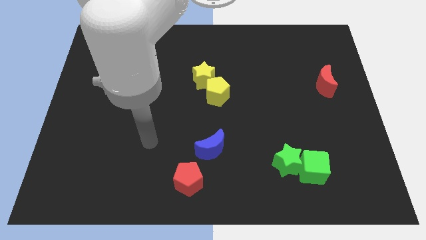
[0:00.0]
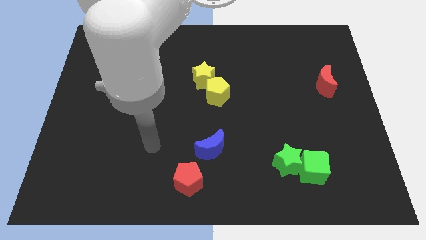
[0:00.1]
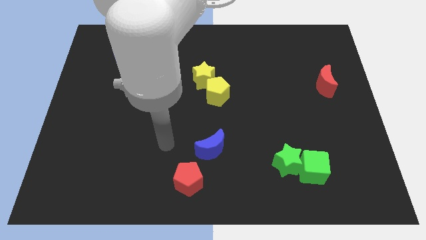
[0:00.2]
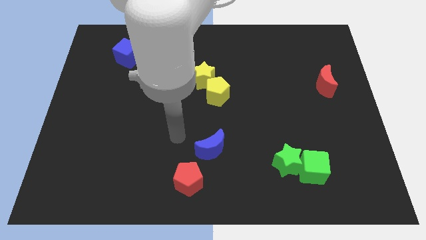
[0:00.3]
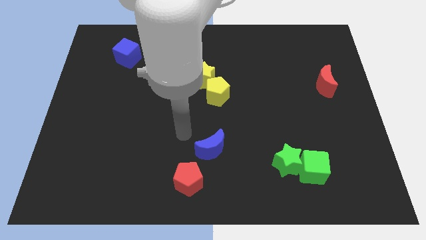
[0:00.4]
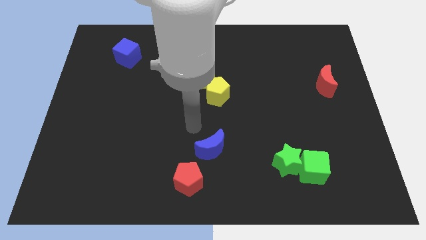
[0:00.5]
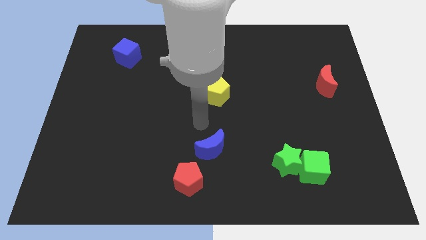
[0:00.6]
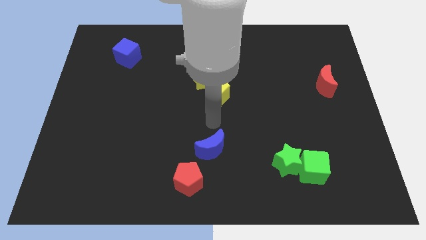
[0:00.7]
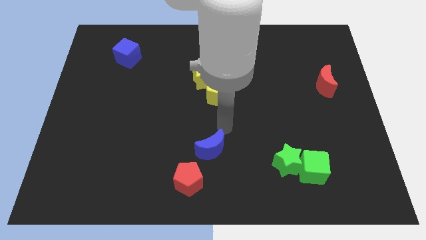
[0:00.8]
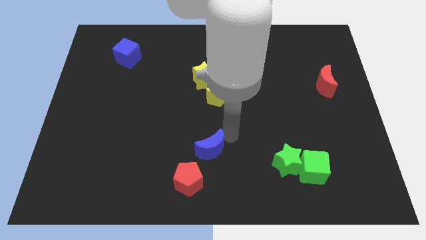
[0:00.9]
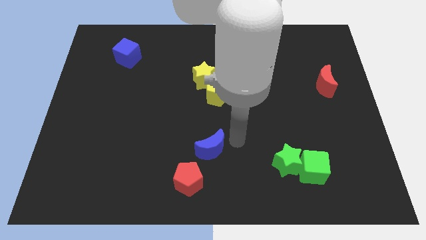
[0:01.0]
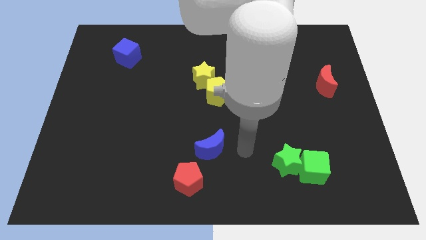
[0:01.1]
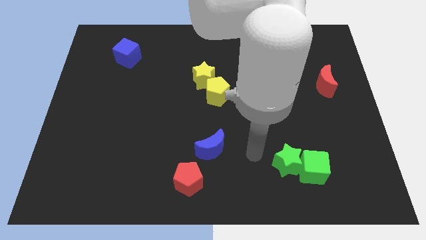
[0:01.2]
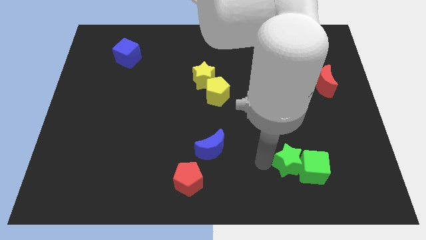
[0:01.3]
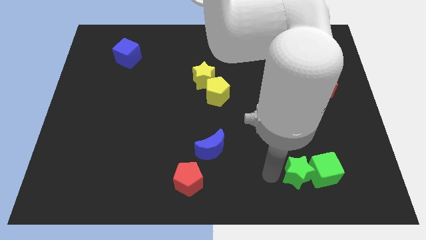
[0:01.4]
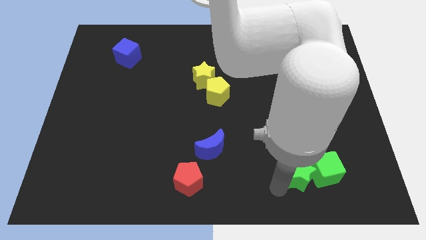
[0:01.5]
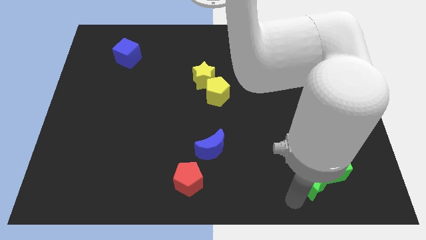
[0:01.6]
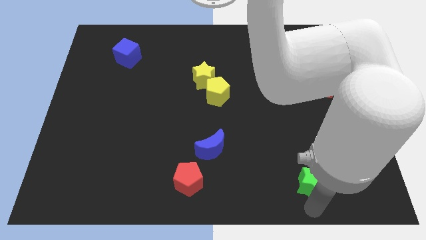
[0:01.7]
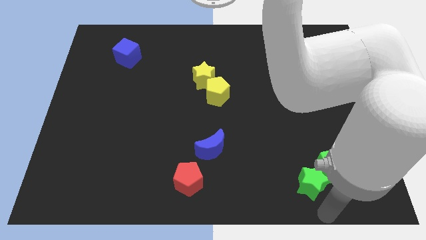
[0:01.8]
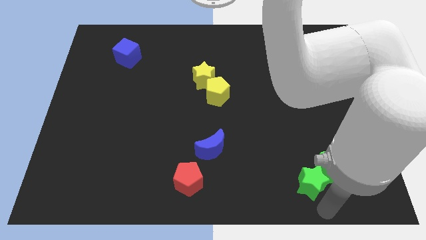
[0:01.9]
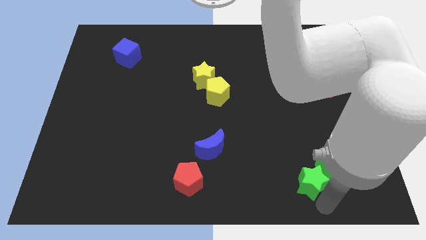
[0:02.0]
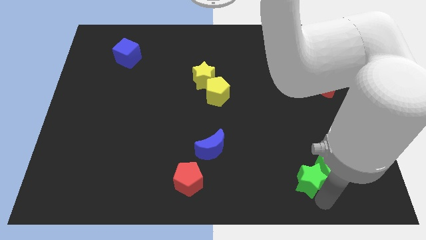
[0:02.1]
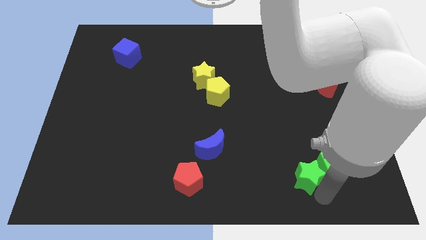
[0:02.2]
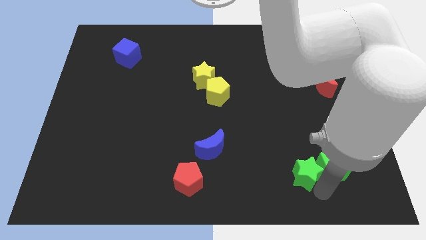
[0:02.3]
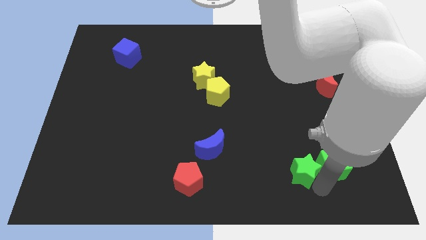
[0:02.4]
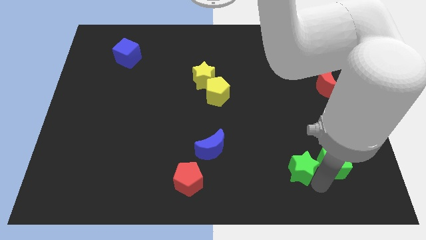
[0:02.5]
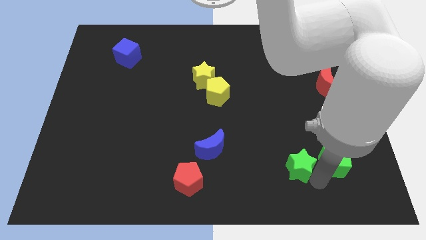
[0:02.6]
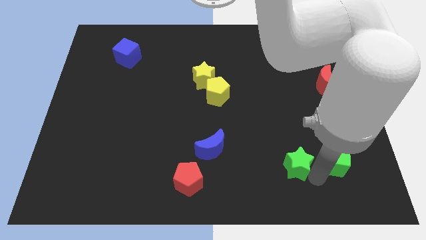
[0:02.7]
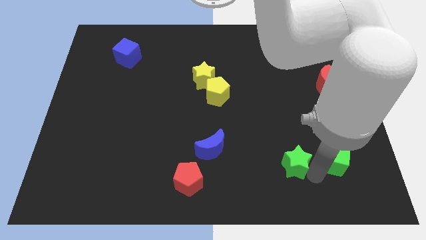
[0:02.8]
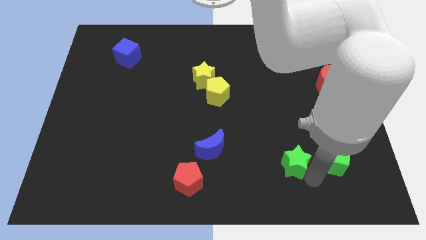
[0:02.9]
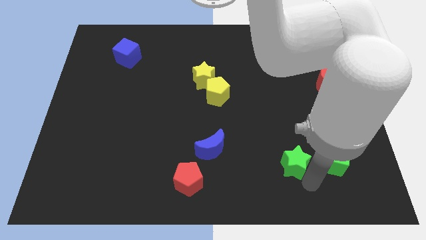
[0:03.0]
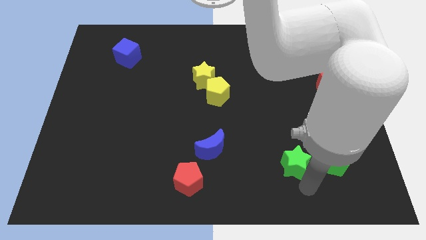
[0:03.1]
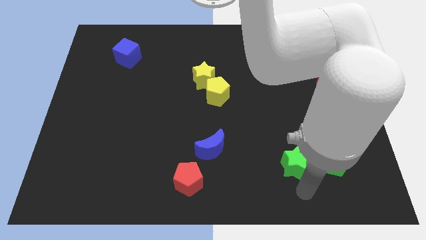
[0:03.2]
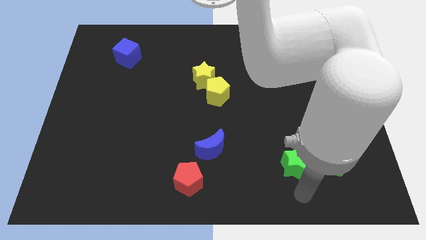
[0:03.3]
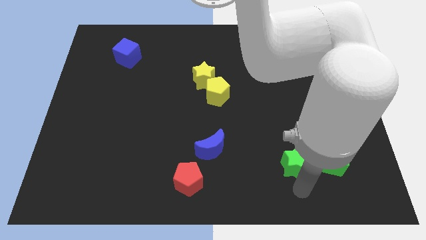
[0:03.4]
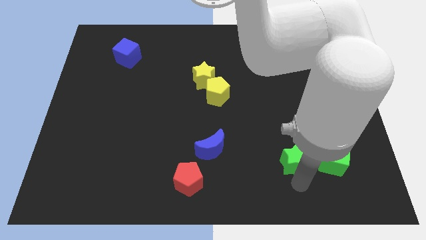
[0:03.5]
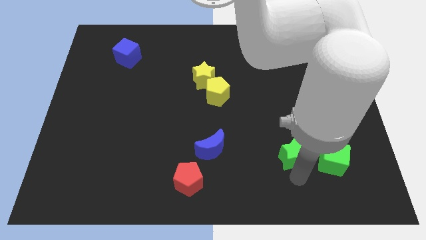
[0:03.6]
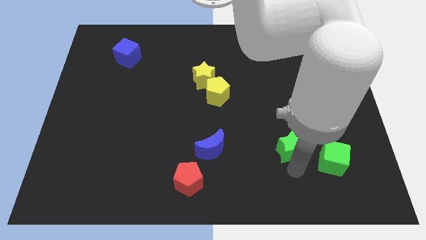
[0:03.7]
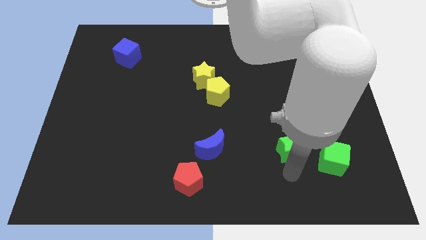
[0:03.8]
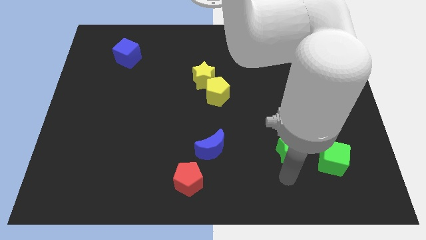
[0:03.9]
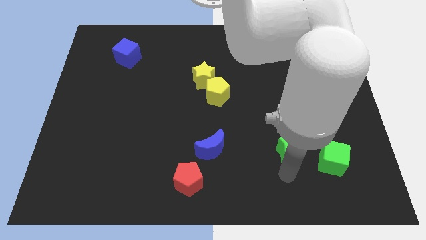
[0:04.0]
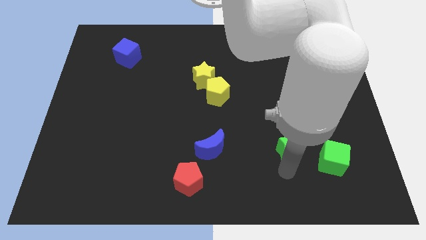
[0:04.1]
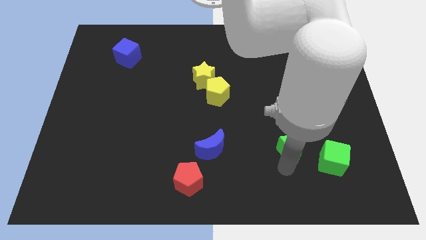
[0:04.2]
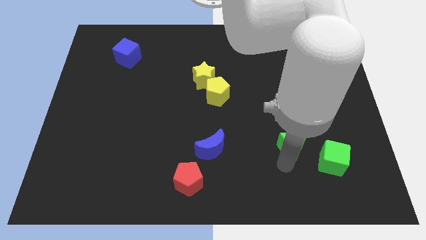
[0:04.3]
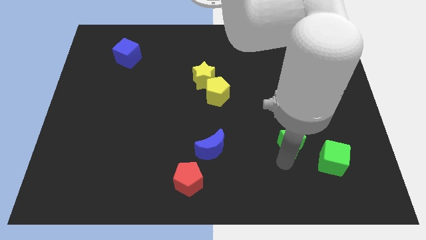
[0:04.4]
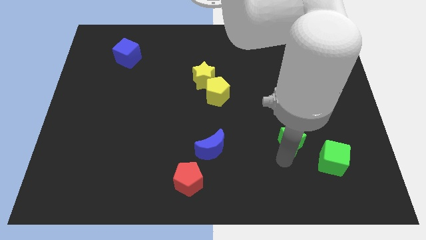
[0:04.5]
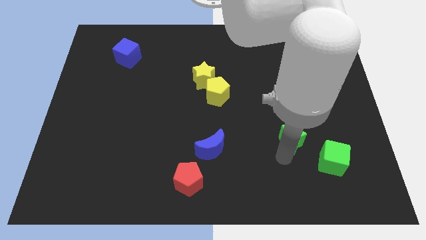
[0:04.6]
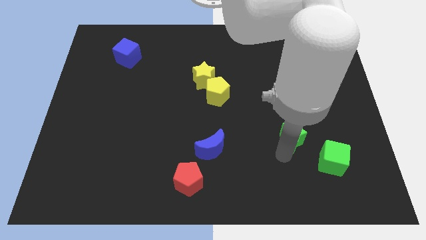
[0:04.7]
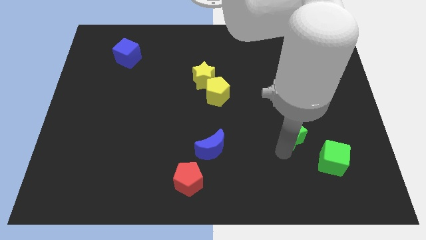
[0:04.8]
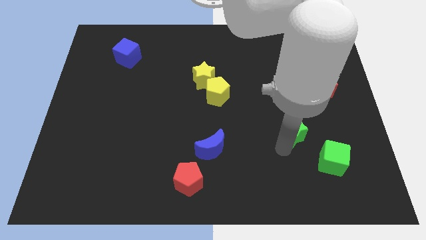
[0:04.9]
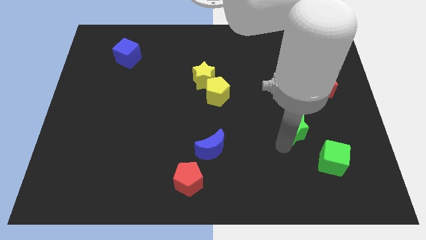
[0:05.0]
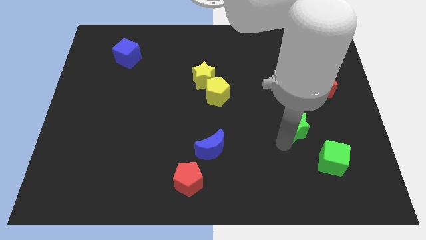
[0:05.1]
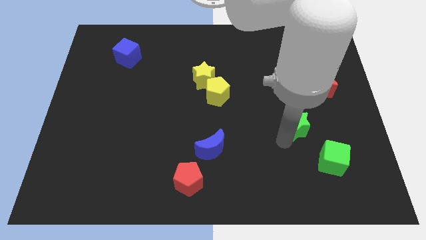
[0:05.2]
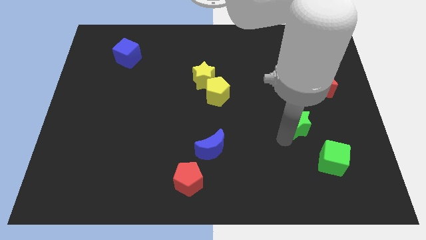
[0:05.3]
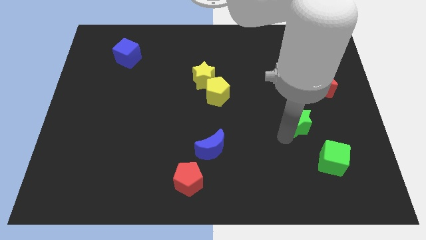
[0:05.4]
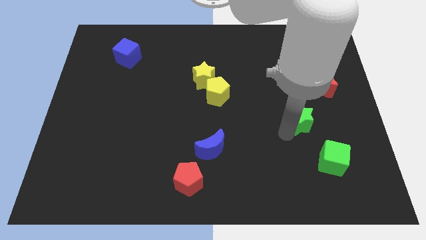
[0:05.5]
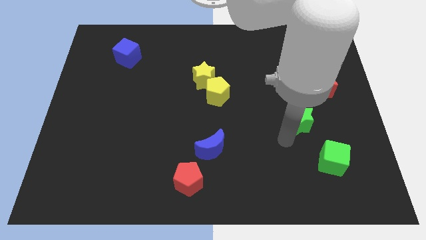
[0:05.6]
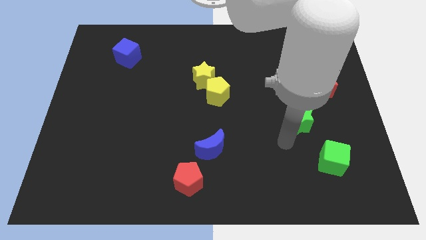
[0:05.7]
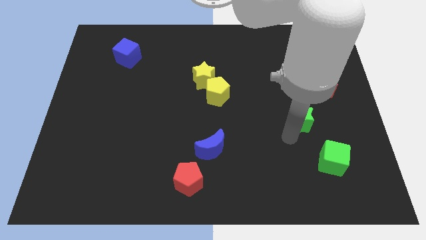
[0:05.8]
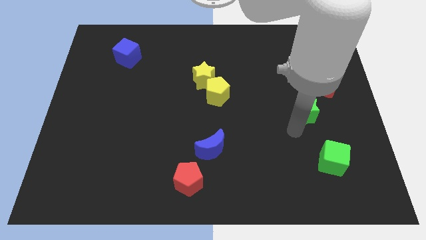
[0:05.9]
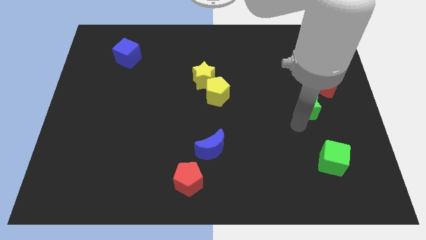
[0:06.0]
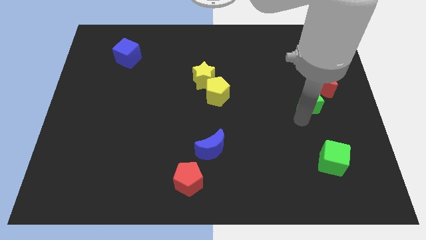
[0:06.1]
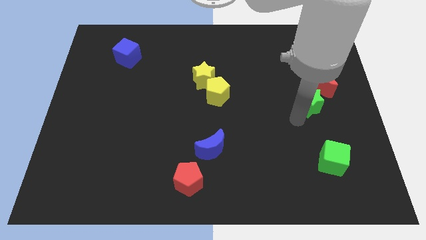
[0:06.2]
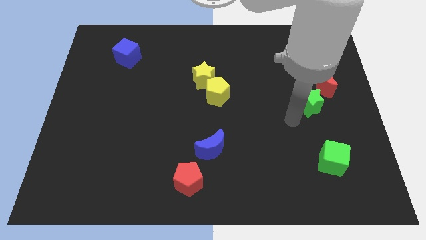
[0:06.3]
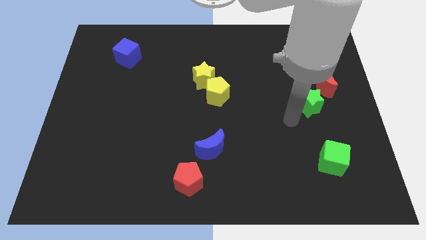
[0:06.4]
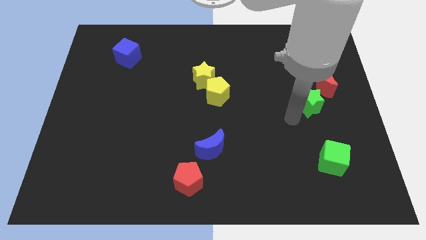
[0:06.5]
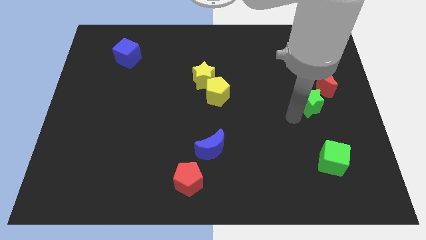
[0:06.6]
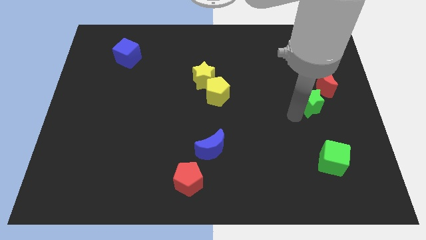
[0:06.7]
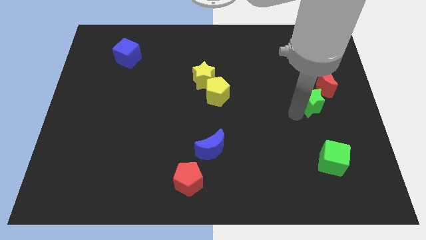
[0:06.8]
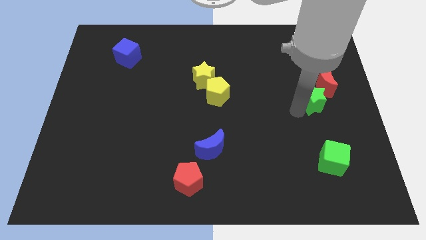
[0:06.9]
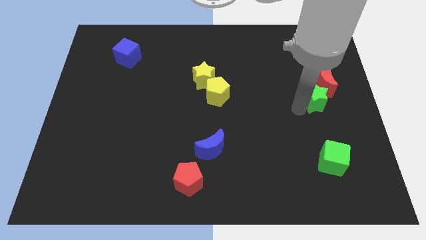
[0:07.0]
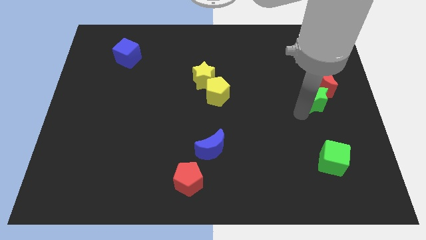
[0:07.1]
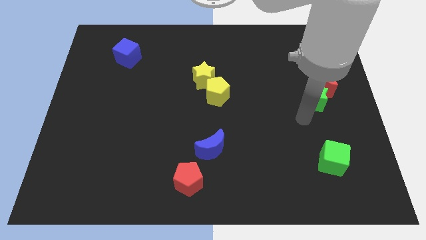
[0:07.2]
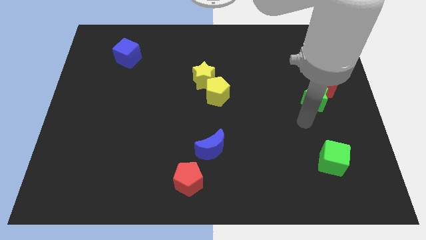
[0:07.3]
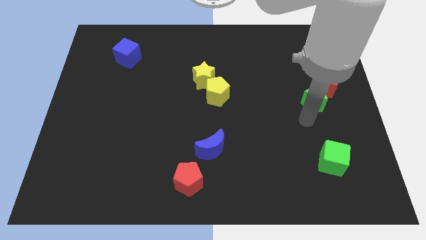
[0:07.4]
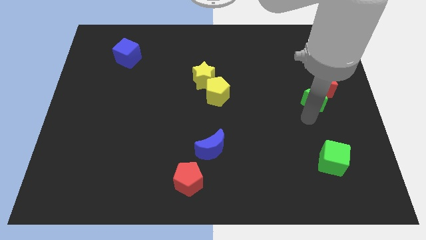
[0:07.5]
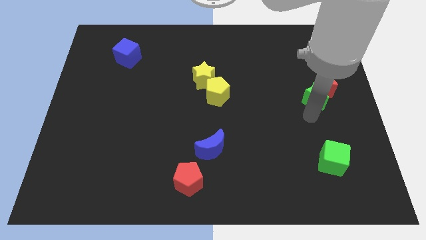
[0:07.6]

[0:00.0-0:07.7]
move the green star to the red moon

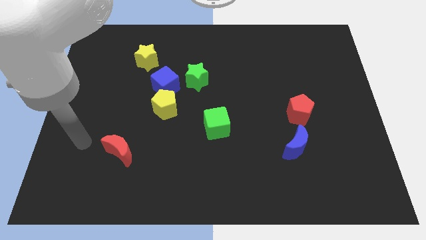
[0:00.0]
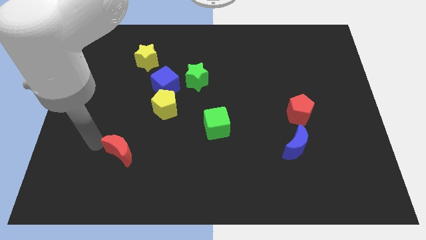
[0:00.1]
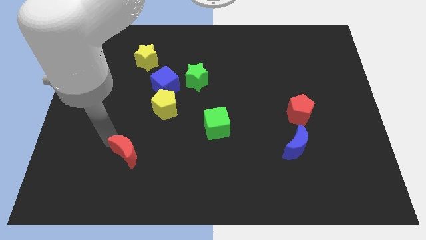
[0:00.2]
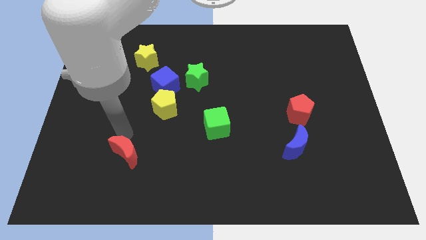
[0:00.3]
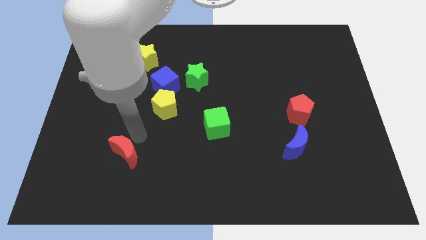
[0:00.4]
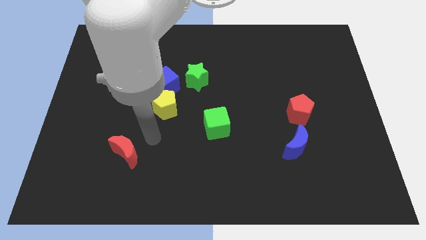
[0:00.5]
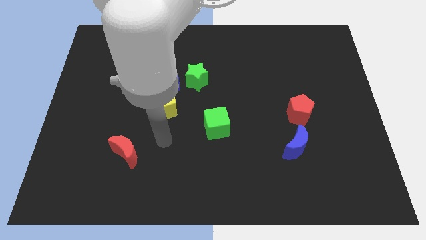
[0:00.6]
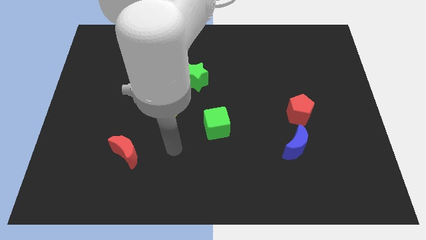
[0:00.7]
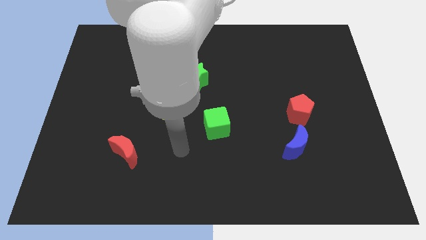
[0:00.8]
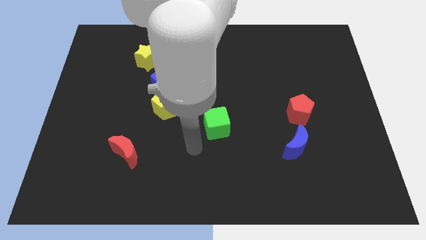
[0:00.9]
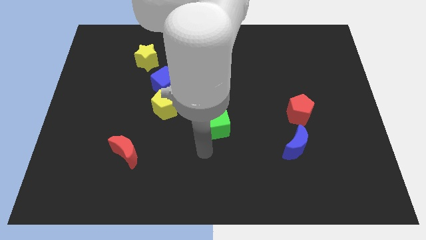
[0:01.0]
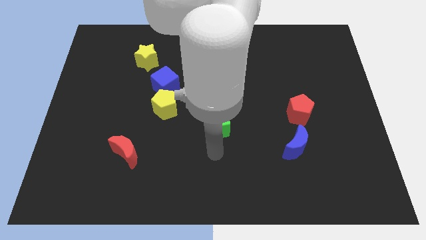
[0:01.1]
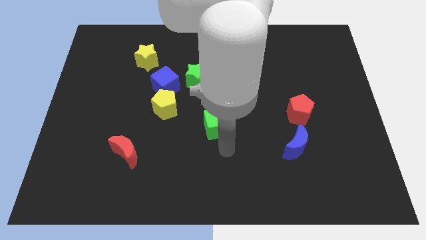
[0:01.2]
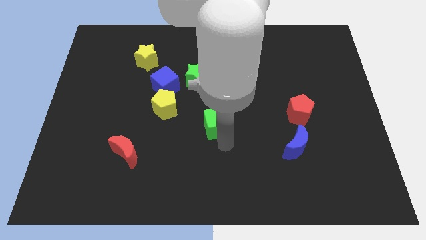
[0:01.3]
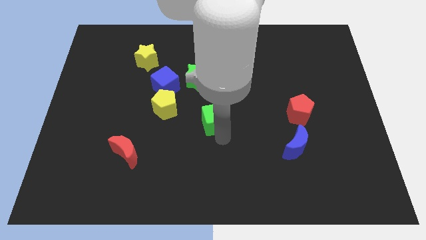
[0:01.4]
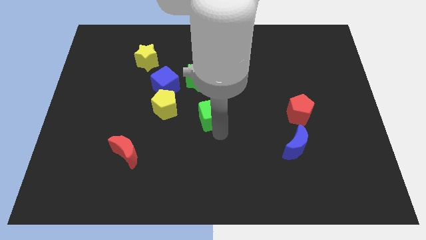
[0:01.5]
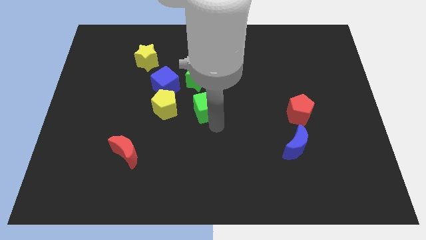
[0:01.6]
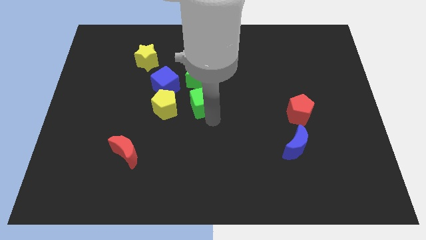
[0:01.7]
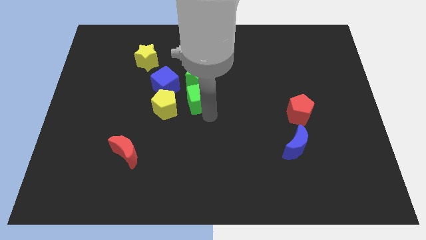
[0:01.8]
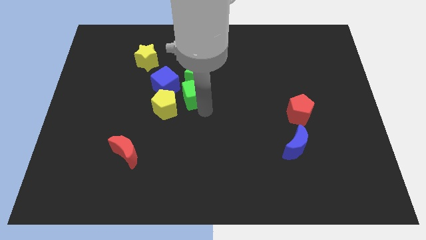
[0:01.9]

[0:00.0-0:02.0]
push the green cube to the green star
